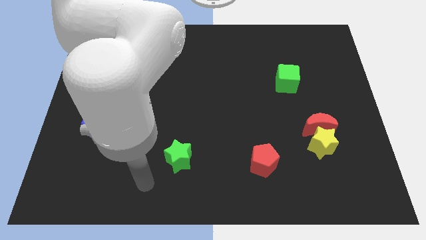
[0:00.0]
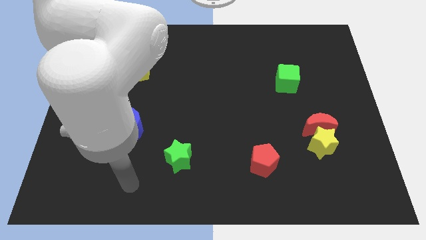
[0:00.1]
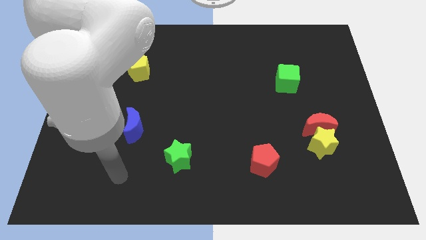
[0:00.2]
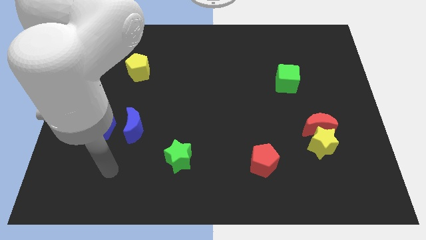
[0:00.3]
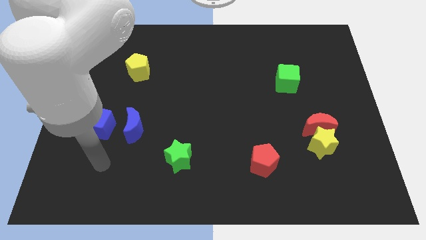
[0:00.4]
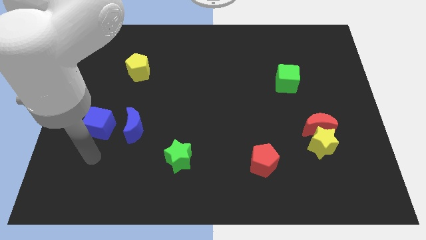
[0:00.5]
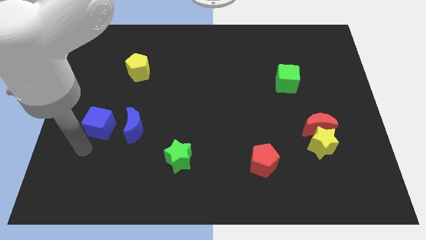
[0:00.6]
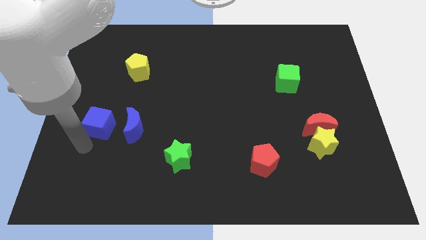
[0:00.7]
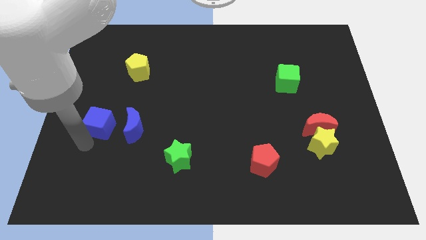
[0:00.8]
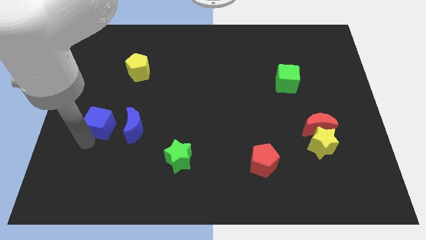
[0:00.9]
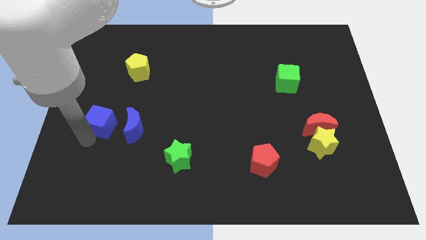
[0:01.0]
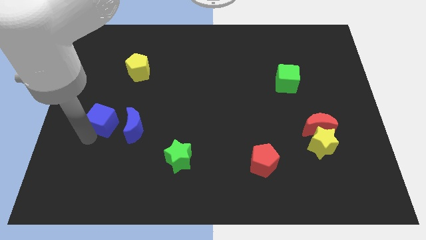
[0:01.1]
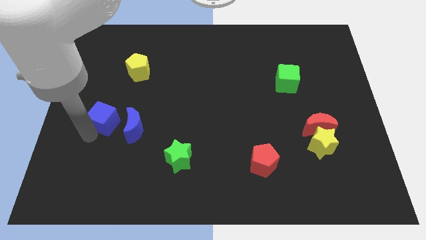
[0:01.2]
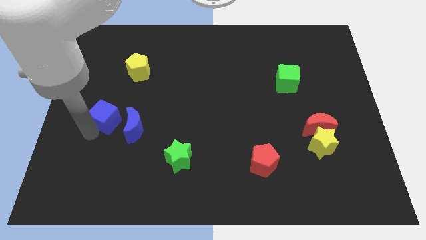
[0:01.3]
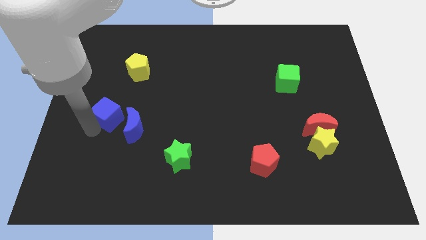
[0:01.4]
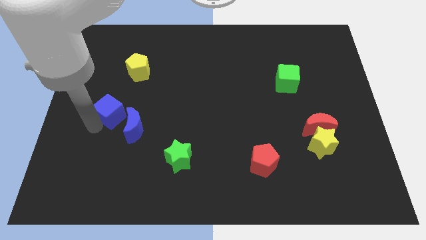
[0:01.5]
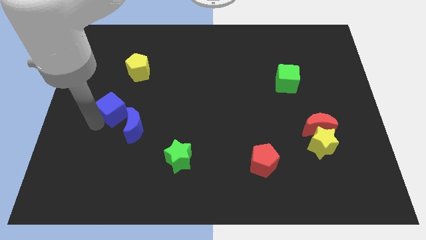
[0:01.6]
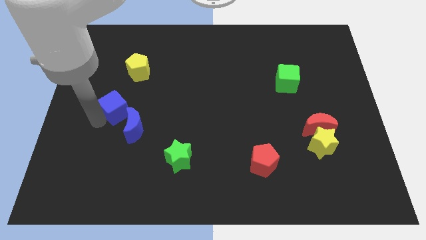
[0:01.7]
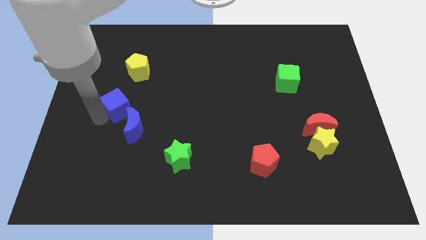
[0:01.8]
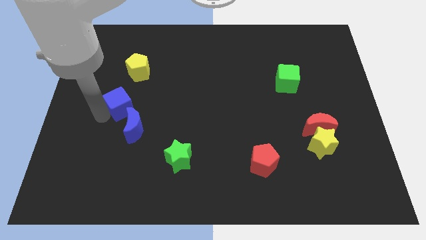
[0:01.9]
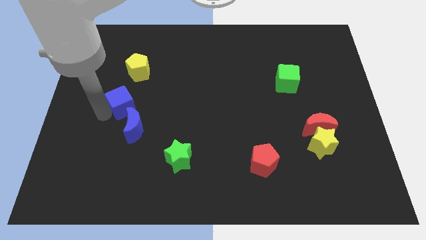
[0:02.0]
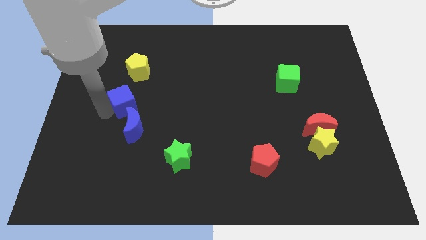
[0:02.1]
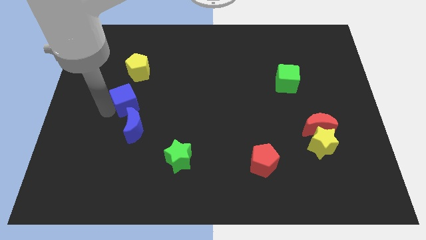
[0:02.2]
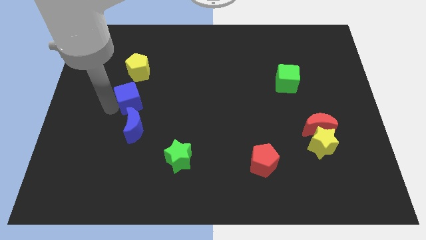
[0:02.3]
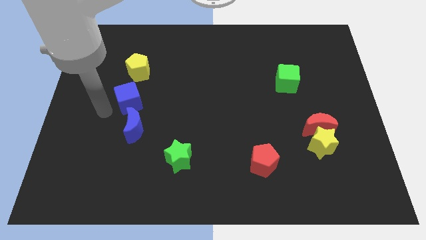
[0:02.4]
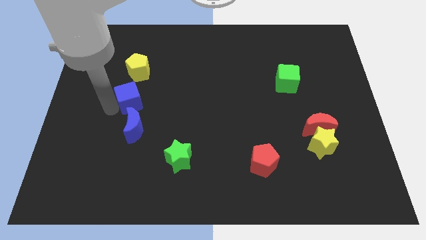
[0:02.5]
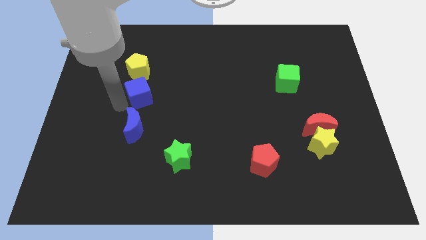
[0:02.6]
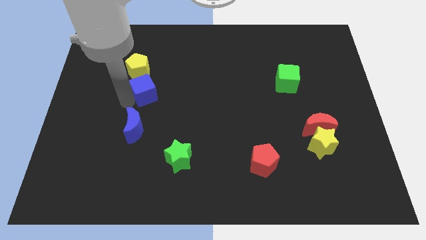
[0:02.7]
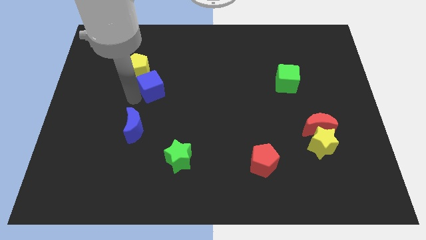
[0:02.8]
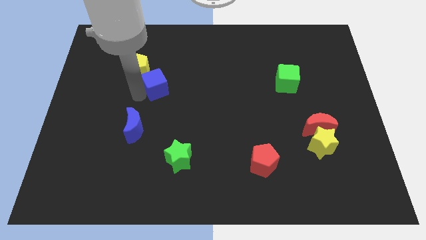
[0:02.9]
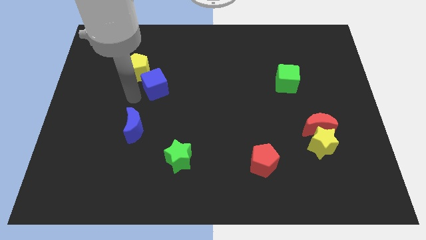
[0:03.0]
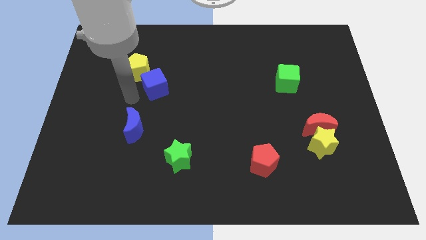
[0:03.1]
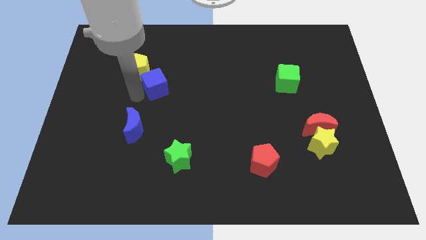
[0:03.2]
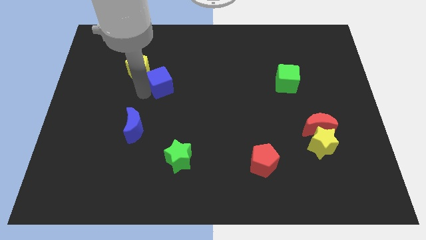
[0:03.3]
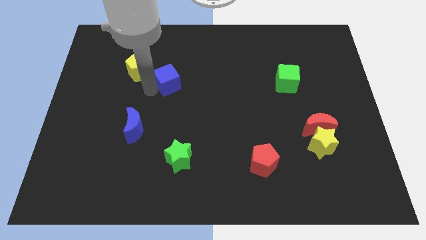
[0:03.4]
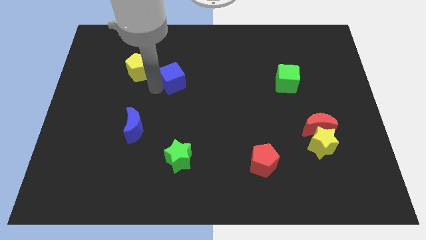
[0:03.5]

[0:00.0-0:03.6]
slide the blue cube diagonally upwards and to the right

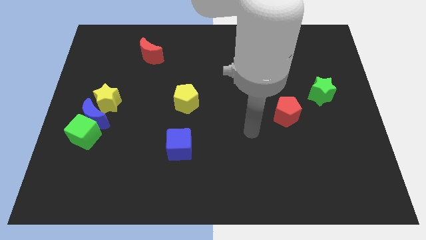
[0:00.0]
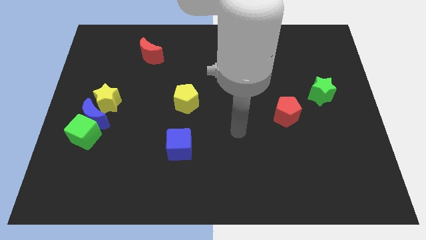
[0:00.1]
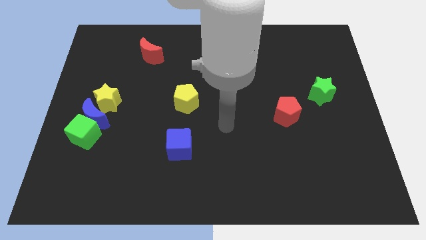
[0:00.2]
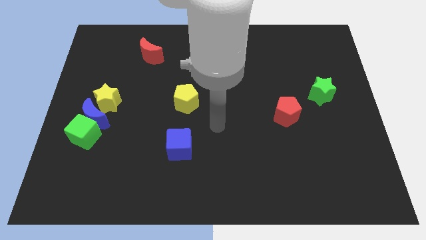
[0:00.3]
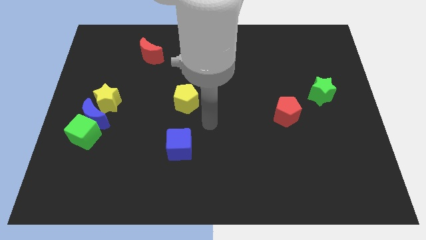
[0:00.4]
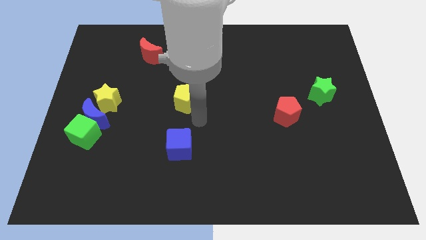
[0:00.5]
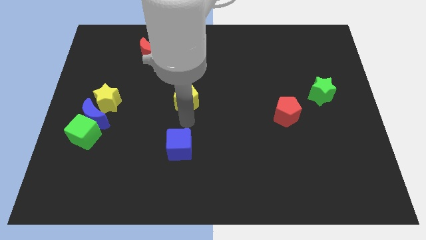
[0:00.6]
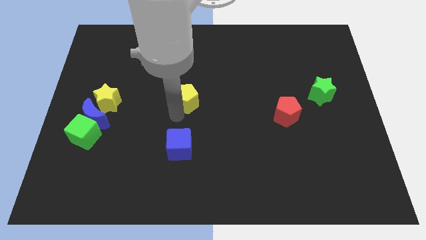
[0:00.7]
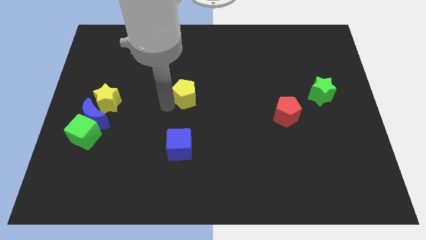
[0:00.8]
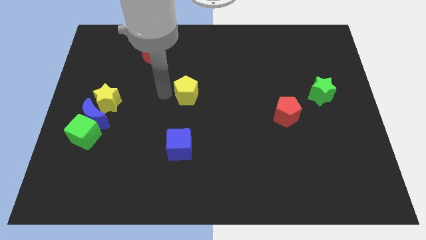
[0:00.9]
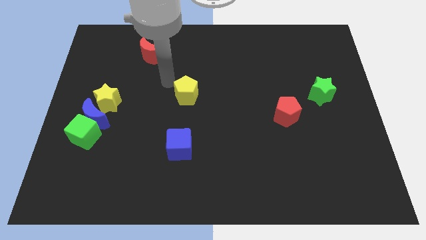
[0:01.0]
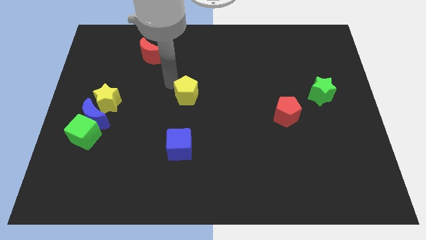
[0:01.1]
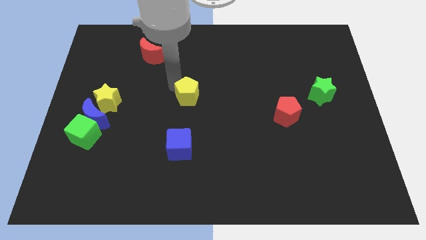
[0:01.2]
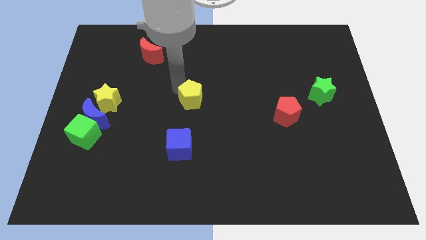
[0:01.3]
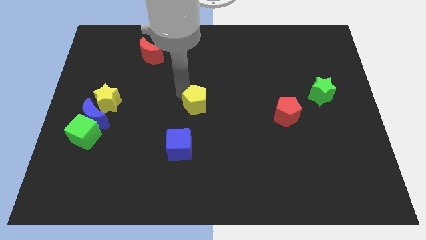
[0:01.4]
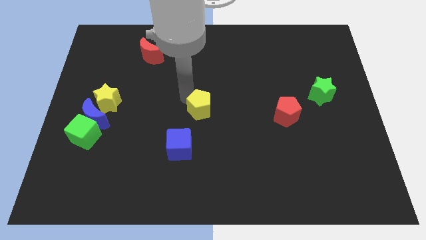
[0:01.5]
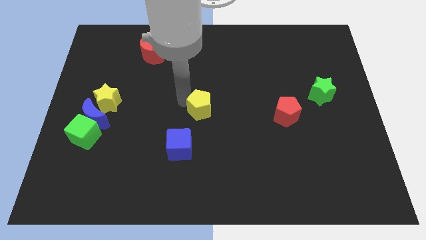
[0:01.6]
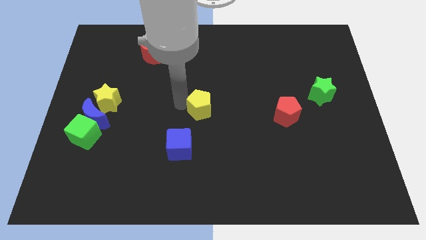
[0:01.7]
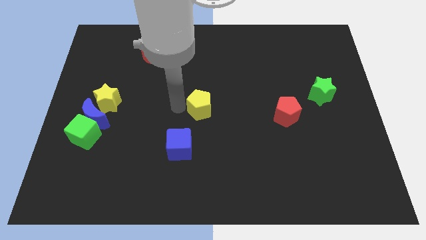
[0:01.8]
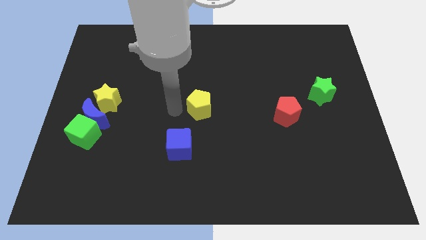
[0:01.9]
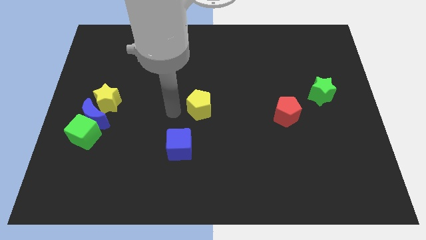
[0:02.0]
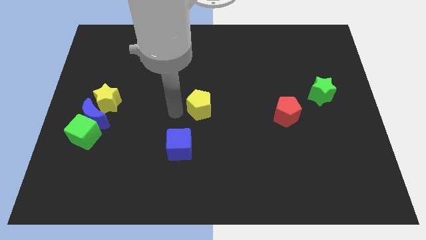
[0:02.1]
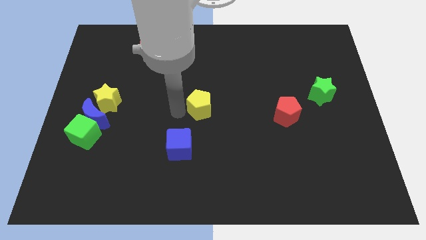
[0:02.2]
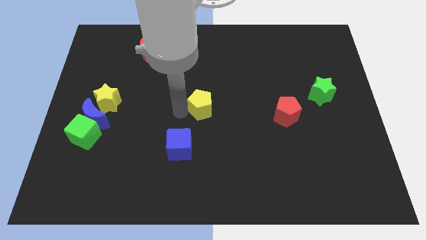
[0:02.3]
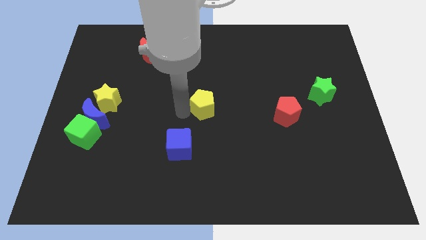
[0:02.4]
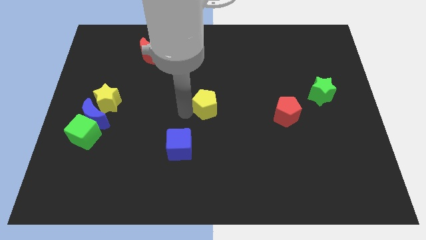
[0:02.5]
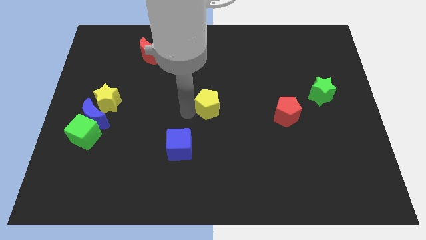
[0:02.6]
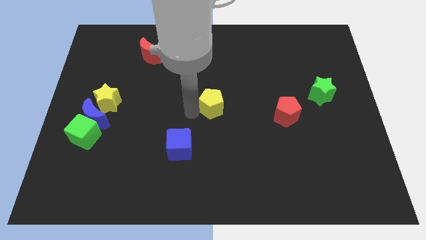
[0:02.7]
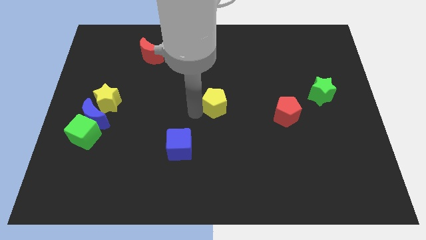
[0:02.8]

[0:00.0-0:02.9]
push the yellow pentagon a little bit right

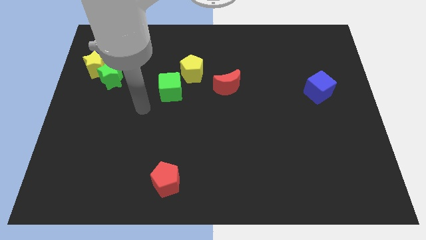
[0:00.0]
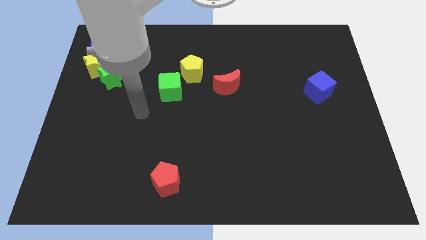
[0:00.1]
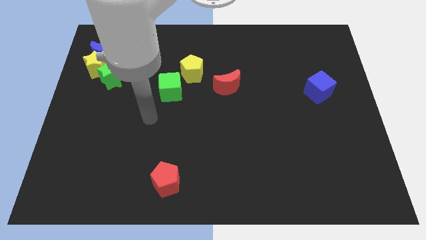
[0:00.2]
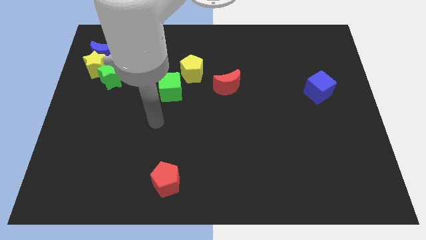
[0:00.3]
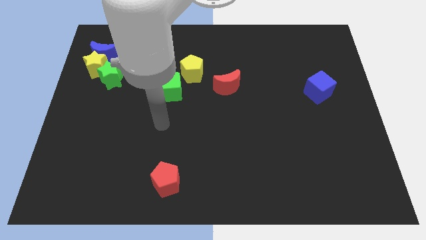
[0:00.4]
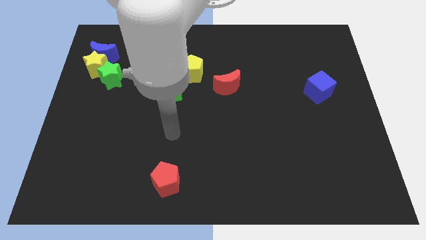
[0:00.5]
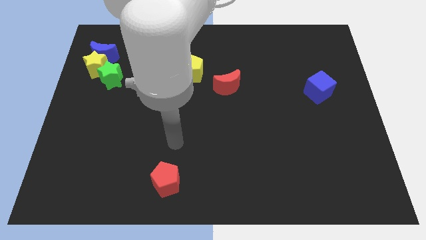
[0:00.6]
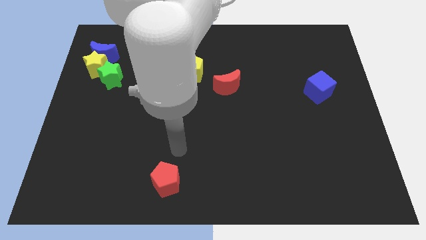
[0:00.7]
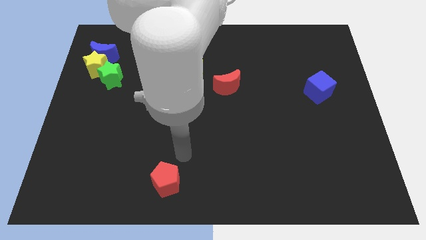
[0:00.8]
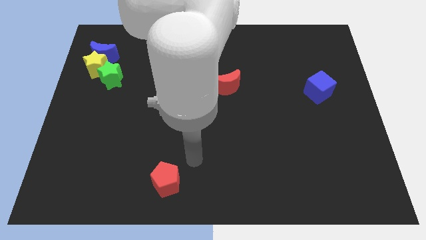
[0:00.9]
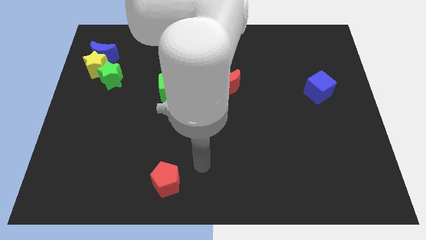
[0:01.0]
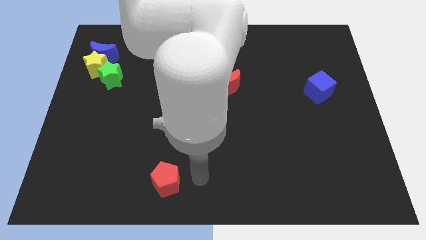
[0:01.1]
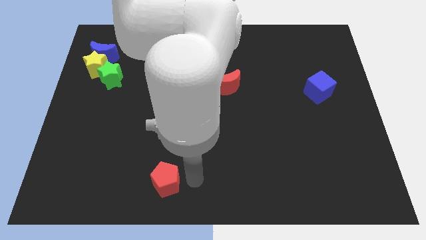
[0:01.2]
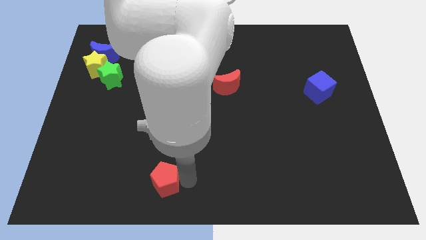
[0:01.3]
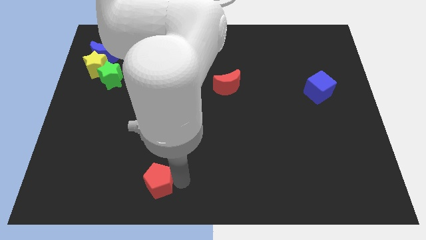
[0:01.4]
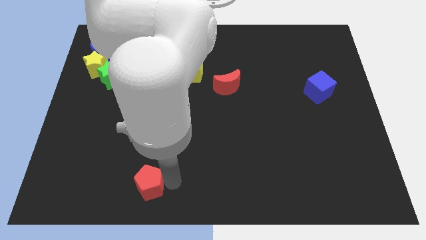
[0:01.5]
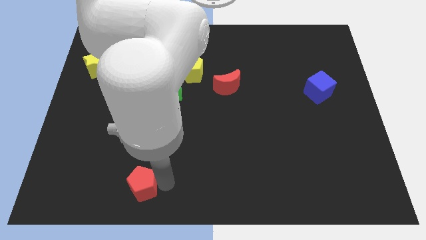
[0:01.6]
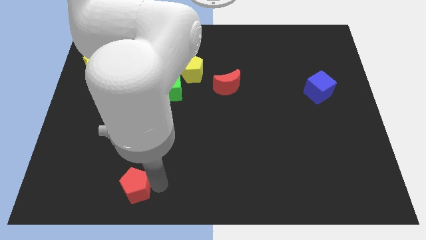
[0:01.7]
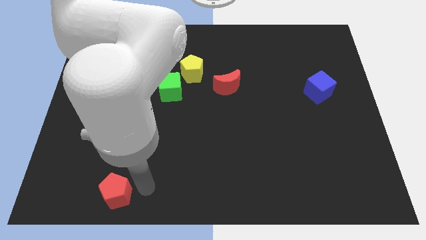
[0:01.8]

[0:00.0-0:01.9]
slightly slide the red pentagon left
